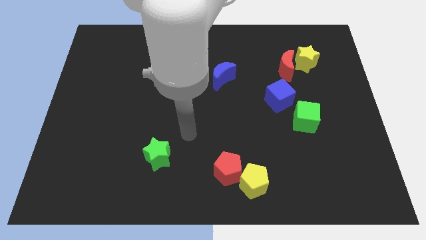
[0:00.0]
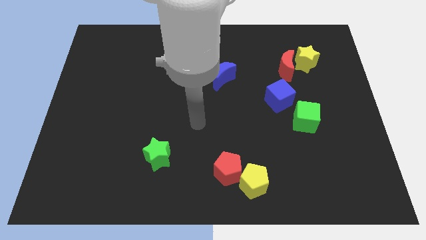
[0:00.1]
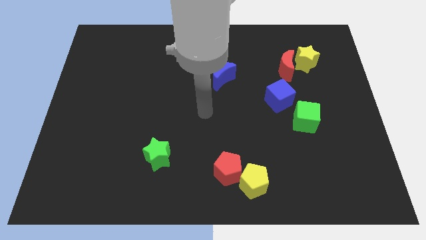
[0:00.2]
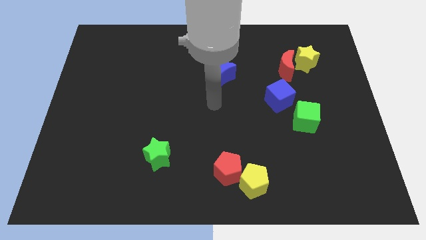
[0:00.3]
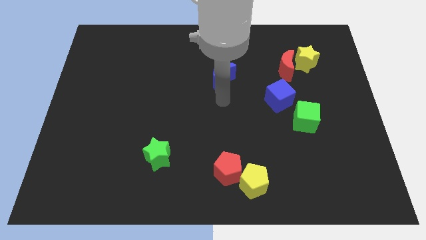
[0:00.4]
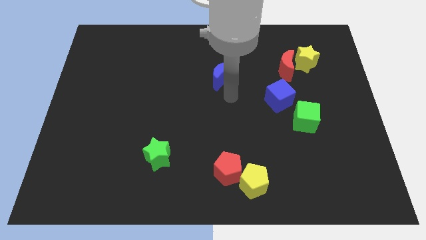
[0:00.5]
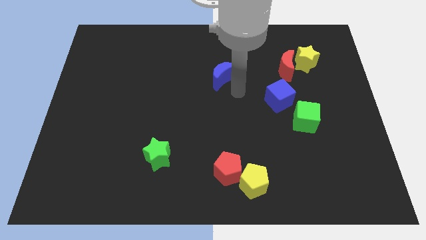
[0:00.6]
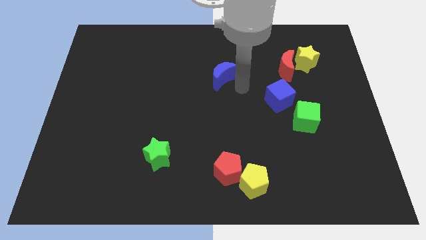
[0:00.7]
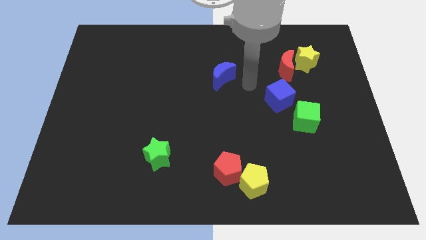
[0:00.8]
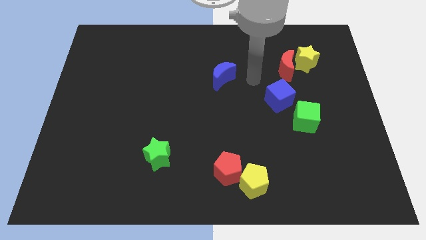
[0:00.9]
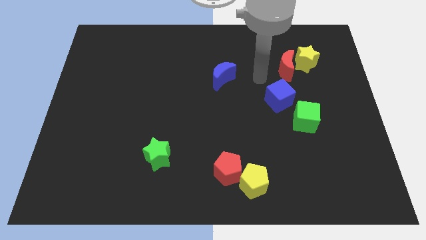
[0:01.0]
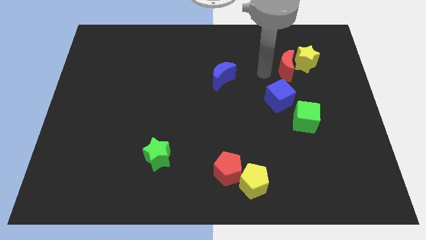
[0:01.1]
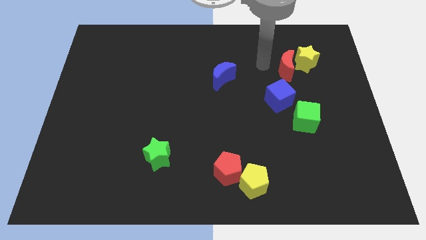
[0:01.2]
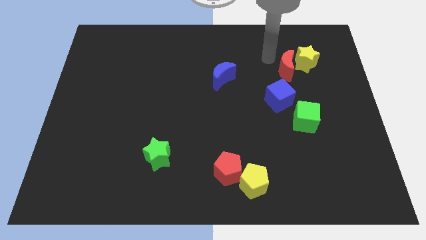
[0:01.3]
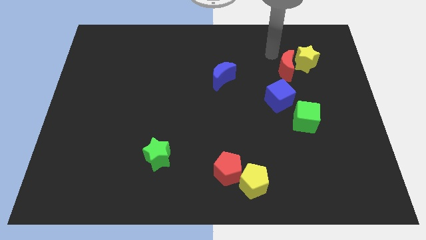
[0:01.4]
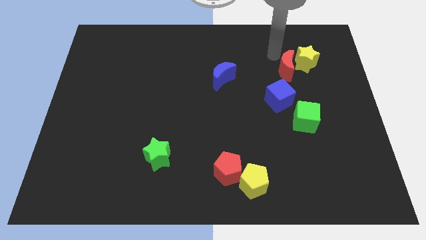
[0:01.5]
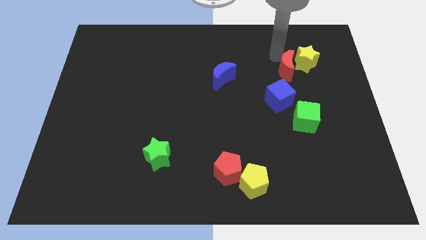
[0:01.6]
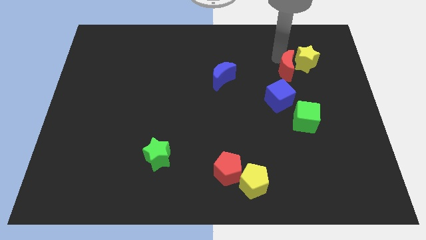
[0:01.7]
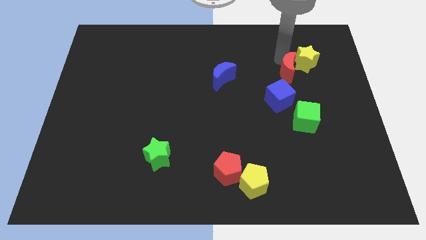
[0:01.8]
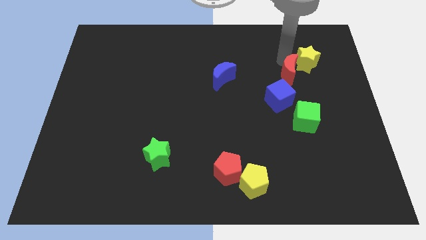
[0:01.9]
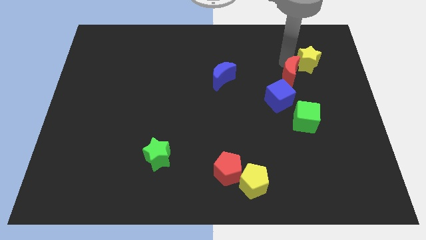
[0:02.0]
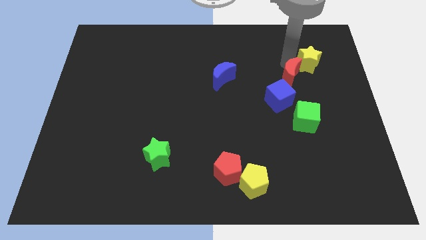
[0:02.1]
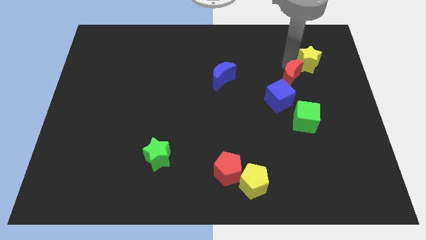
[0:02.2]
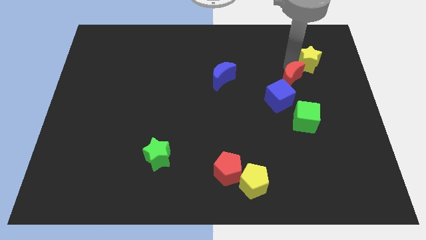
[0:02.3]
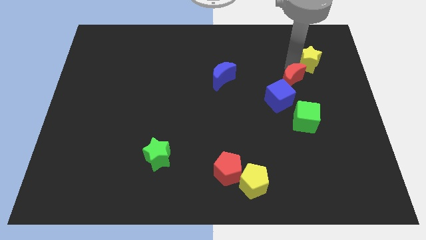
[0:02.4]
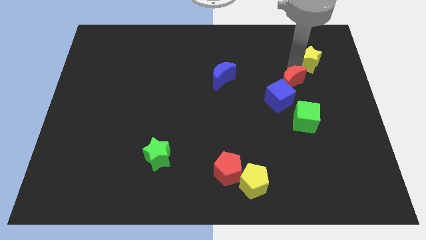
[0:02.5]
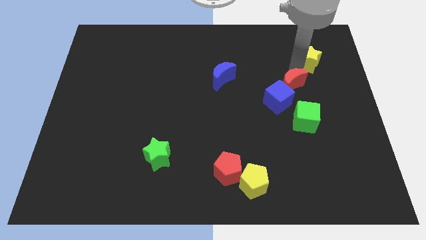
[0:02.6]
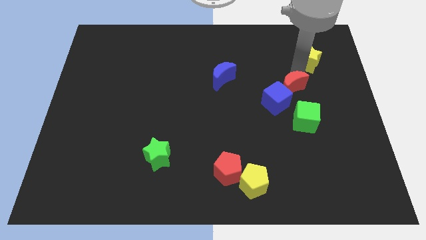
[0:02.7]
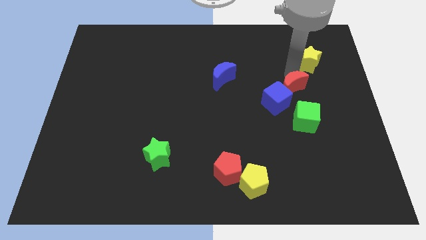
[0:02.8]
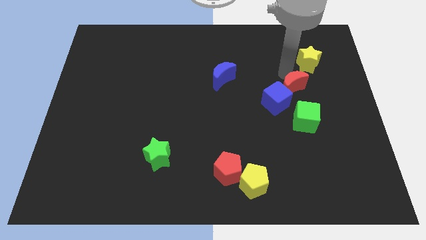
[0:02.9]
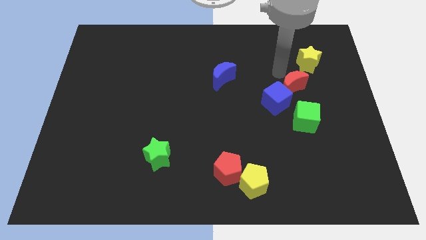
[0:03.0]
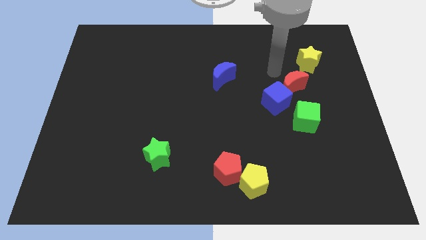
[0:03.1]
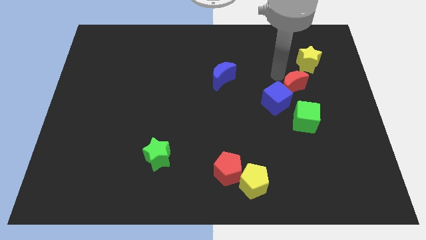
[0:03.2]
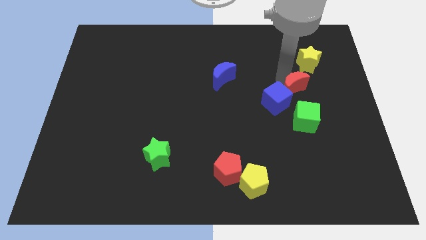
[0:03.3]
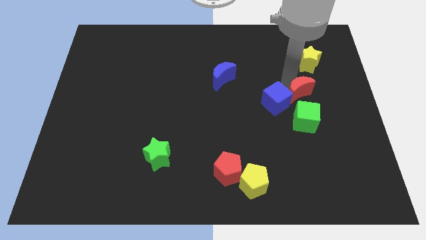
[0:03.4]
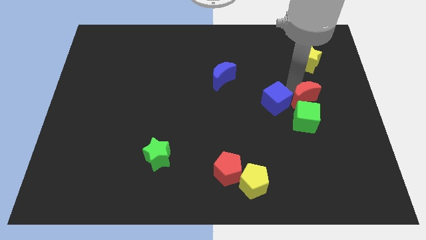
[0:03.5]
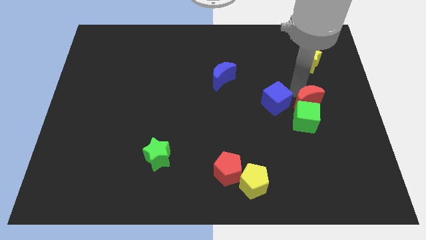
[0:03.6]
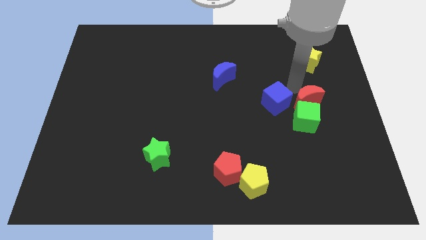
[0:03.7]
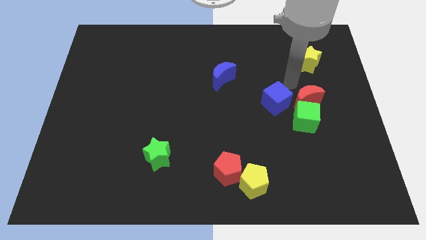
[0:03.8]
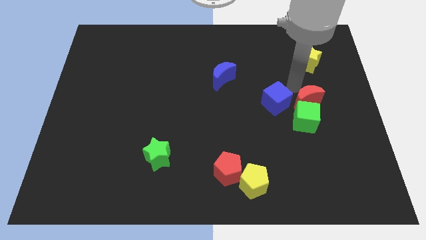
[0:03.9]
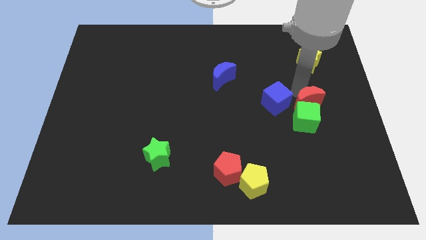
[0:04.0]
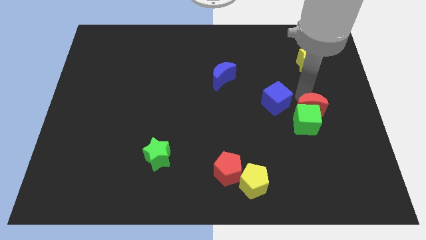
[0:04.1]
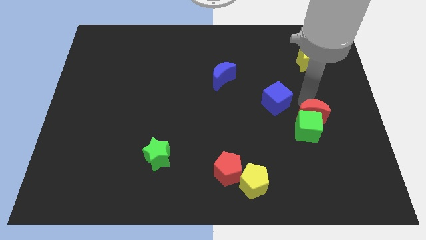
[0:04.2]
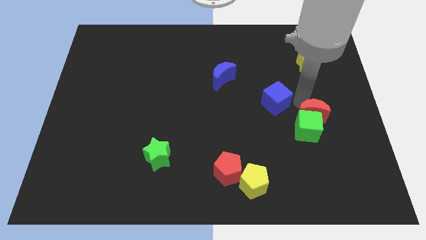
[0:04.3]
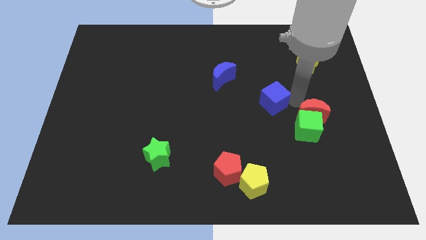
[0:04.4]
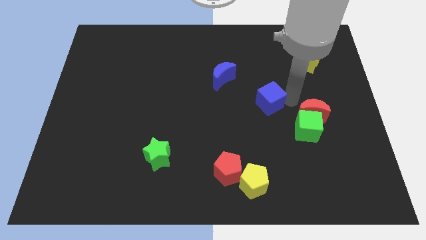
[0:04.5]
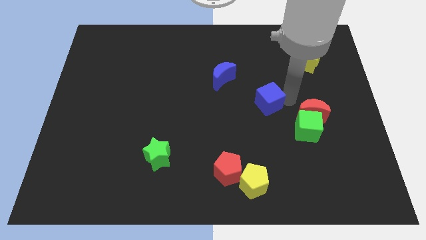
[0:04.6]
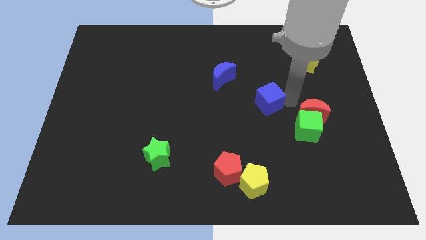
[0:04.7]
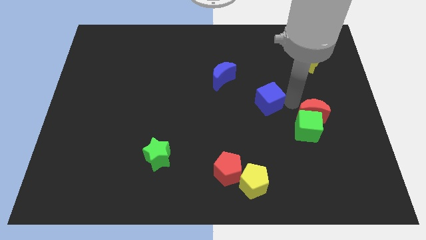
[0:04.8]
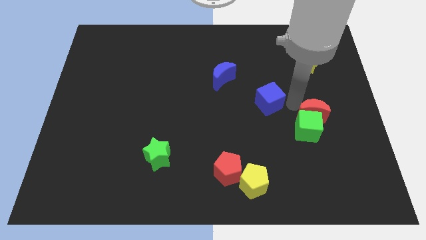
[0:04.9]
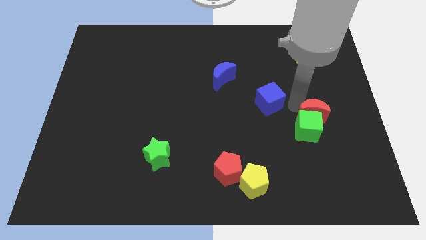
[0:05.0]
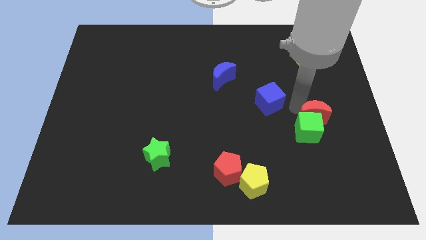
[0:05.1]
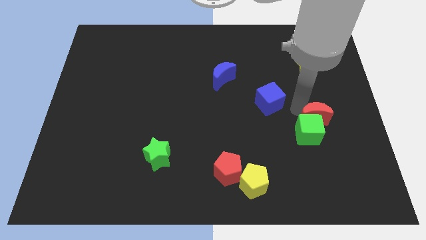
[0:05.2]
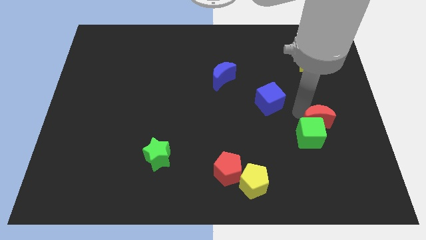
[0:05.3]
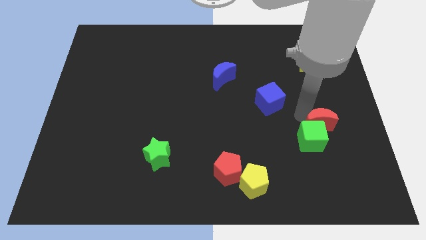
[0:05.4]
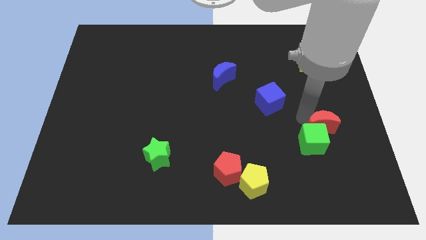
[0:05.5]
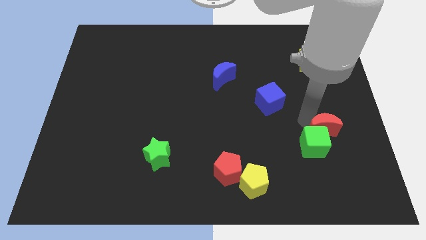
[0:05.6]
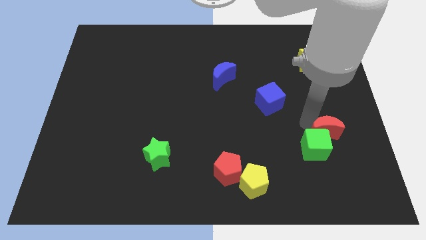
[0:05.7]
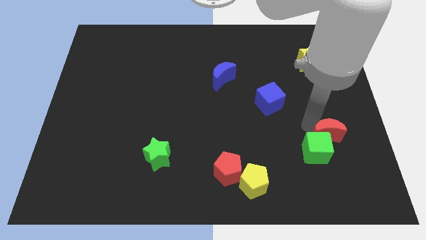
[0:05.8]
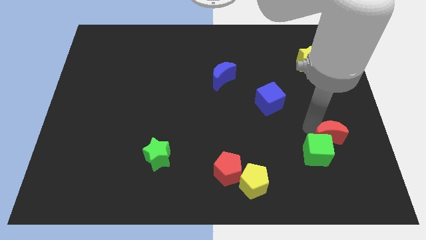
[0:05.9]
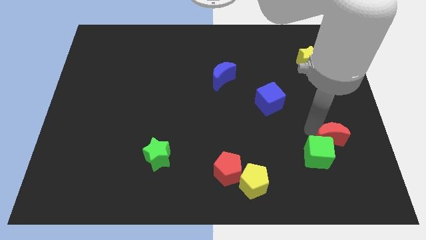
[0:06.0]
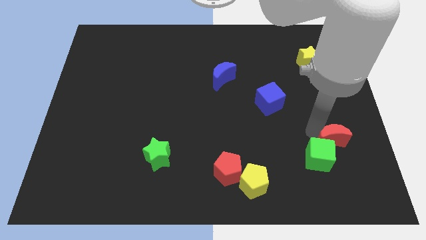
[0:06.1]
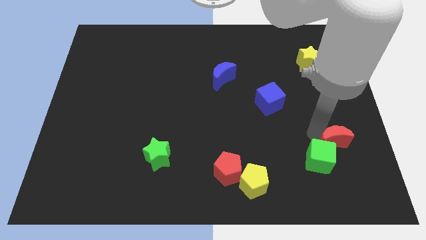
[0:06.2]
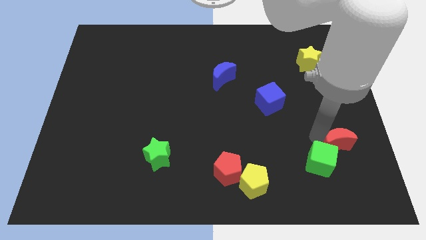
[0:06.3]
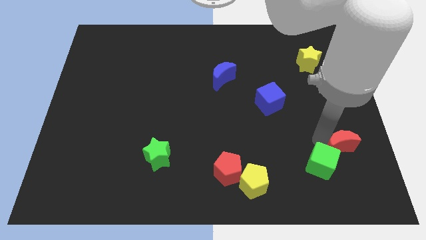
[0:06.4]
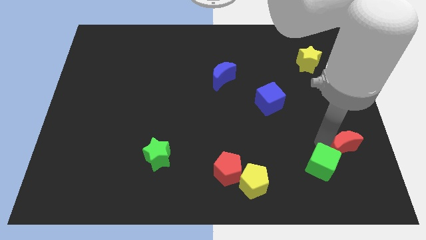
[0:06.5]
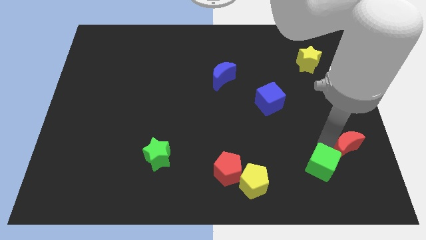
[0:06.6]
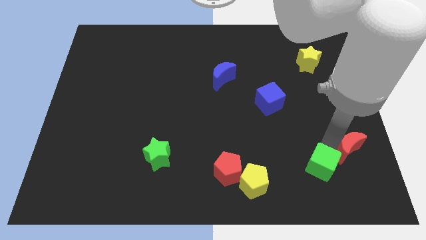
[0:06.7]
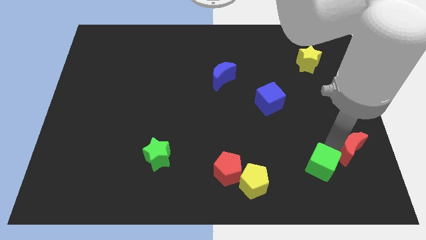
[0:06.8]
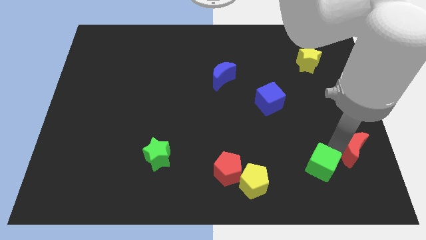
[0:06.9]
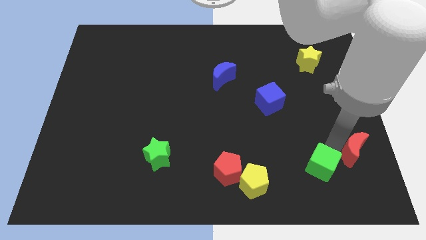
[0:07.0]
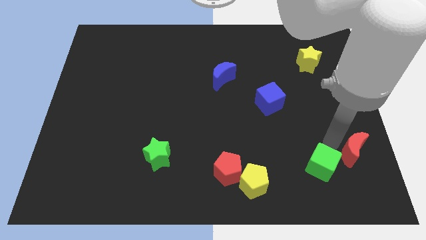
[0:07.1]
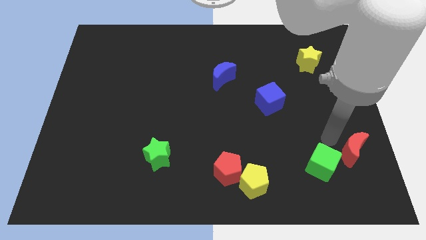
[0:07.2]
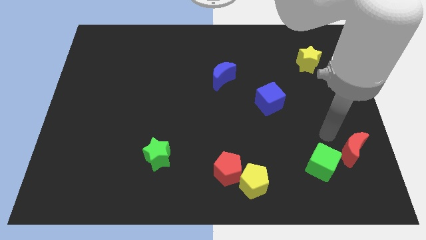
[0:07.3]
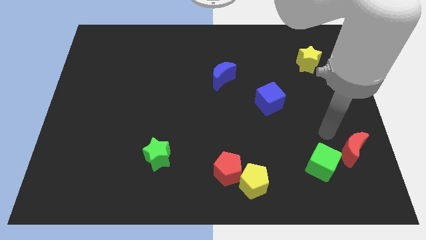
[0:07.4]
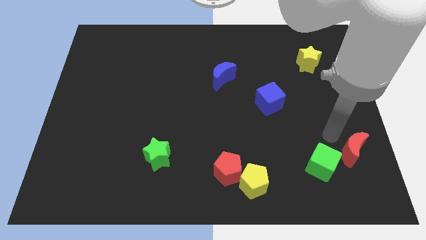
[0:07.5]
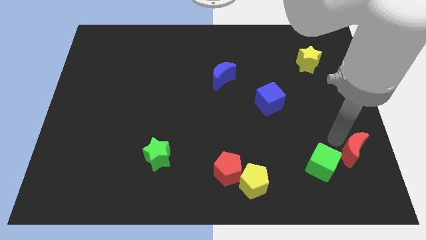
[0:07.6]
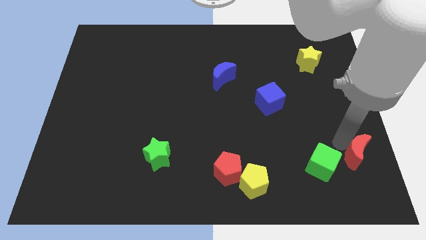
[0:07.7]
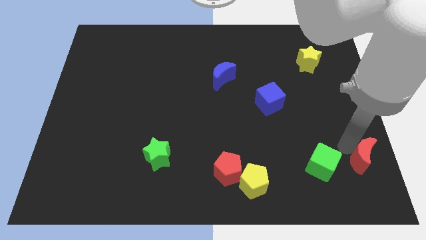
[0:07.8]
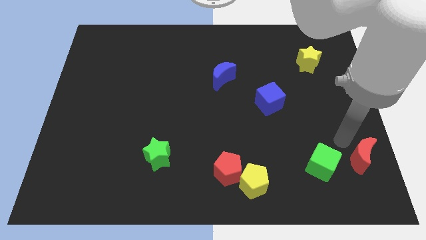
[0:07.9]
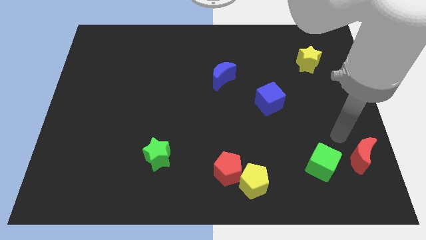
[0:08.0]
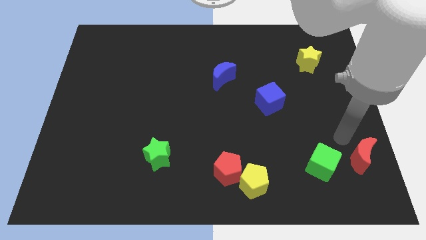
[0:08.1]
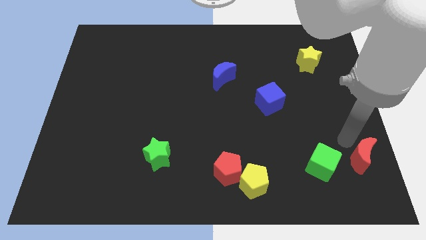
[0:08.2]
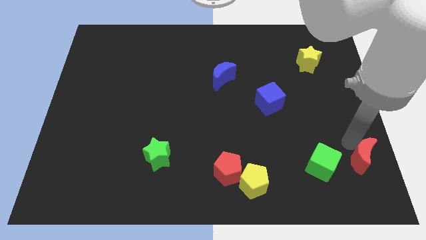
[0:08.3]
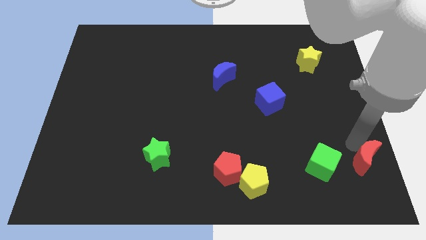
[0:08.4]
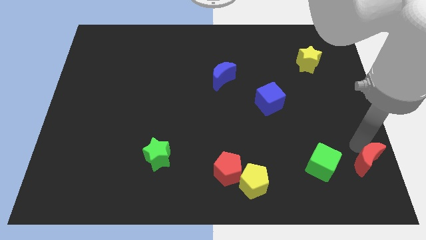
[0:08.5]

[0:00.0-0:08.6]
slide the red moon to the bottom right of the board
